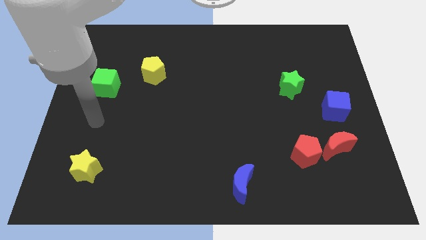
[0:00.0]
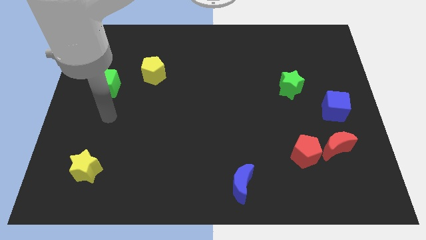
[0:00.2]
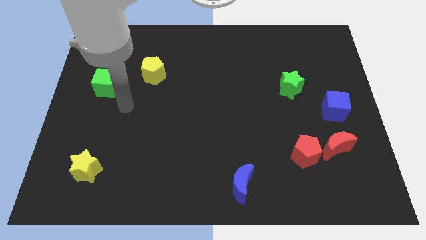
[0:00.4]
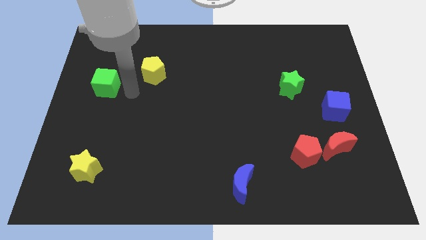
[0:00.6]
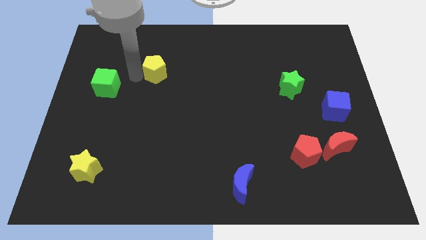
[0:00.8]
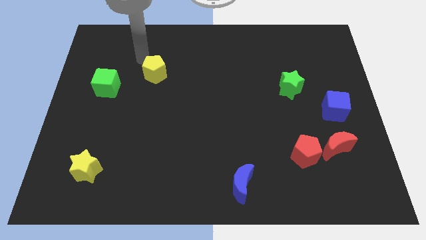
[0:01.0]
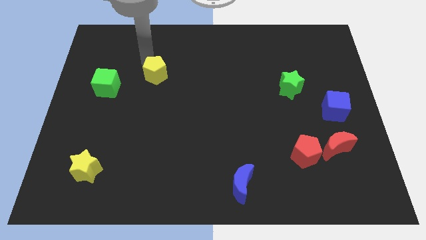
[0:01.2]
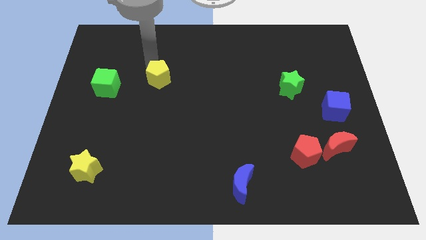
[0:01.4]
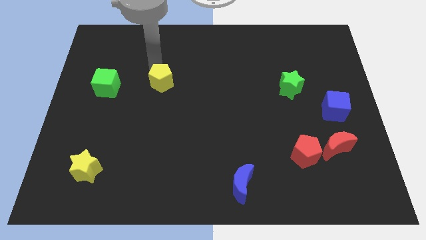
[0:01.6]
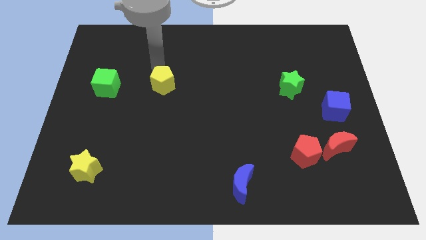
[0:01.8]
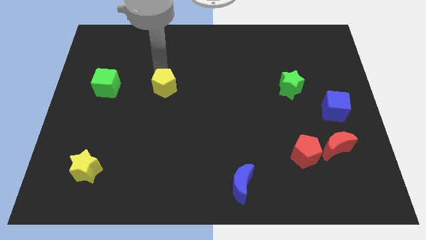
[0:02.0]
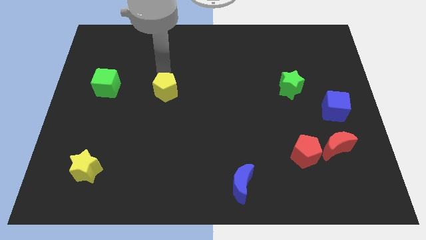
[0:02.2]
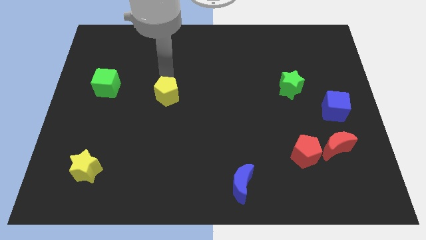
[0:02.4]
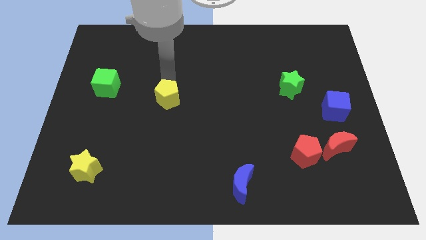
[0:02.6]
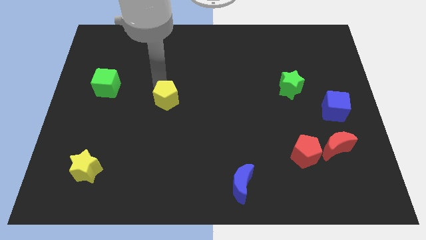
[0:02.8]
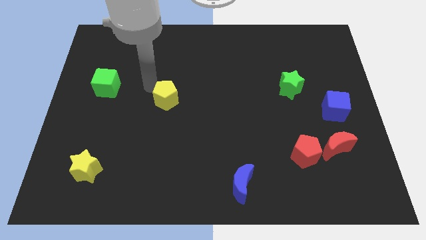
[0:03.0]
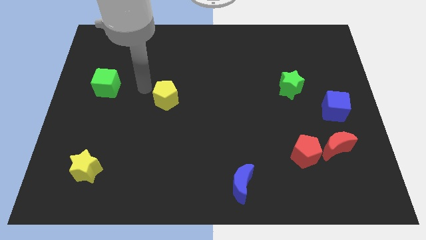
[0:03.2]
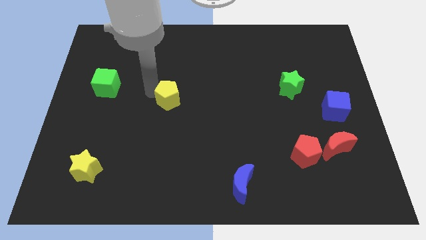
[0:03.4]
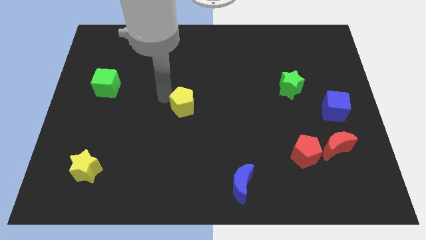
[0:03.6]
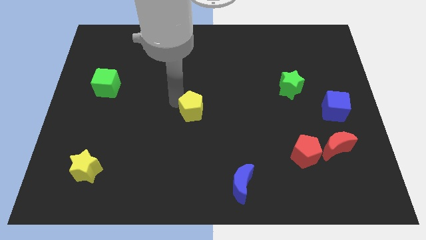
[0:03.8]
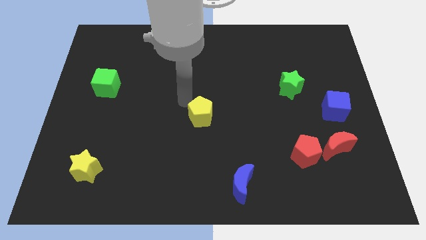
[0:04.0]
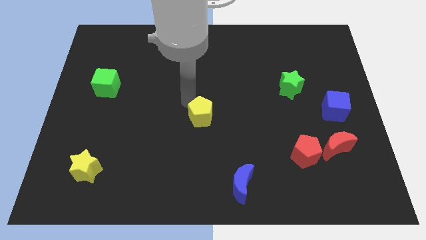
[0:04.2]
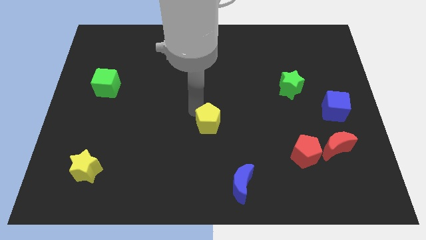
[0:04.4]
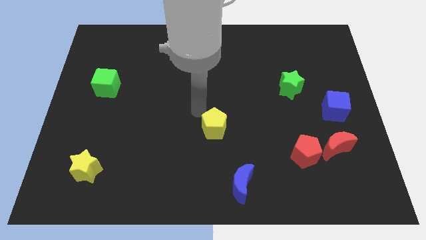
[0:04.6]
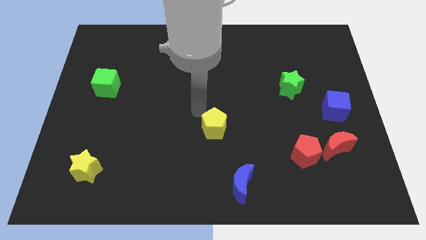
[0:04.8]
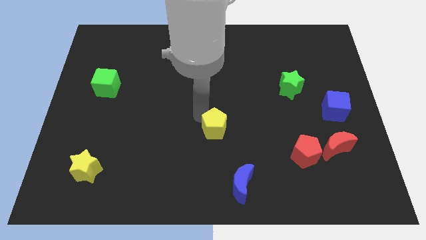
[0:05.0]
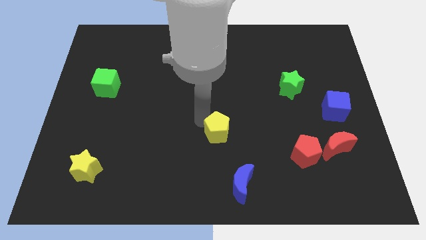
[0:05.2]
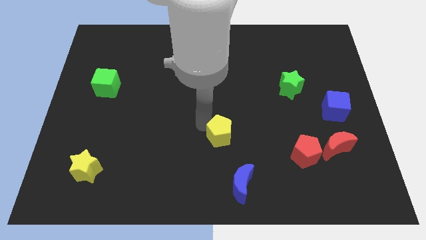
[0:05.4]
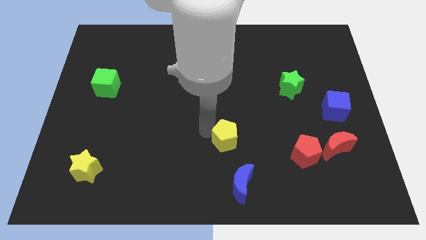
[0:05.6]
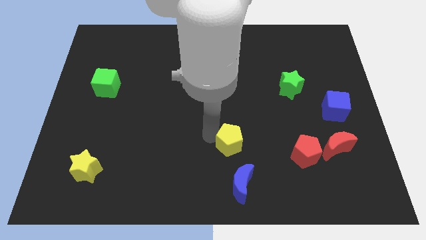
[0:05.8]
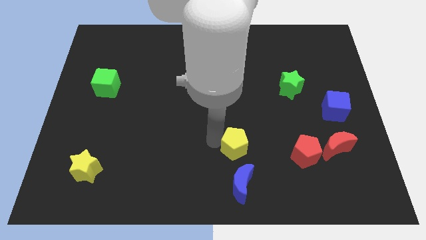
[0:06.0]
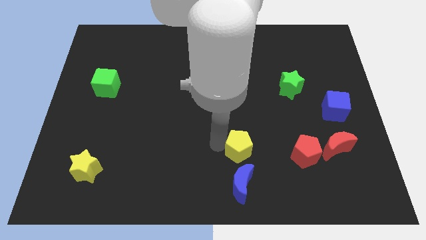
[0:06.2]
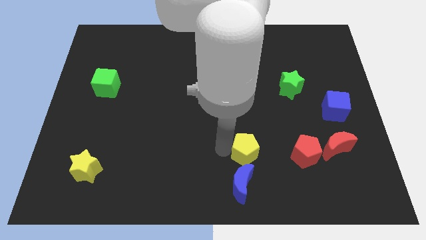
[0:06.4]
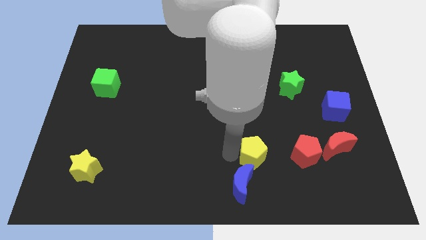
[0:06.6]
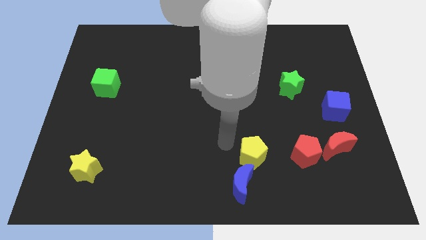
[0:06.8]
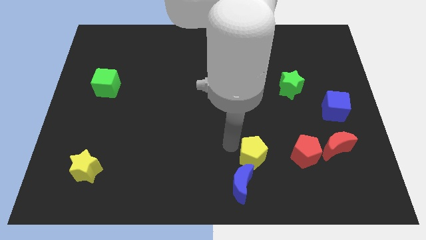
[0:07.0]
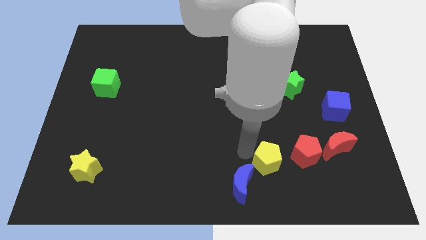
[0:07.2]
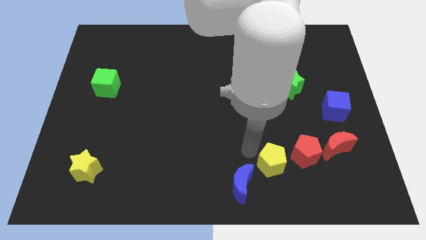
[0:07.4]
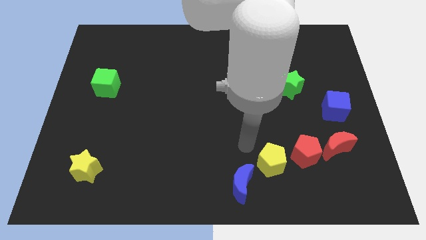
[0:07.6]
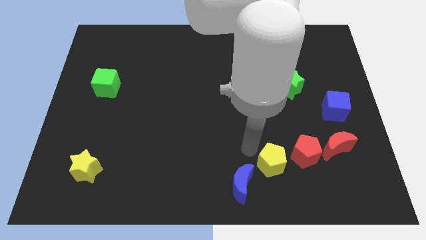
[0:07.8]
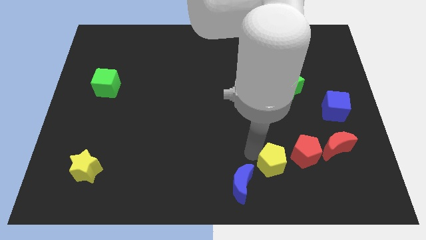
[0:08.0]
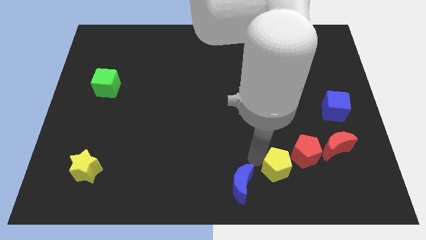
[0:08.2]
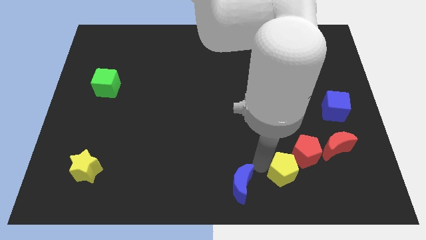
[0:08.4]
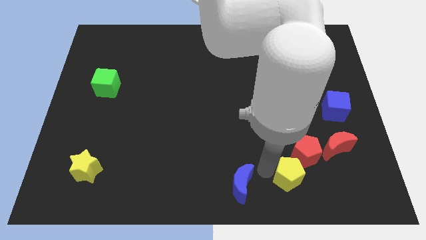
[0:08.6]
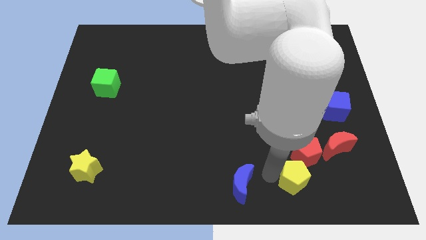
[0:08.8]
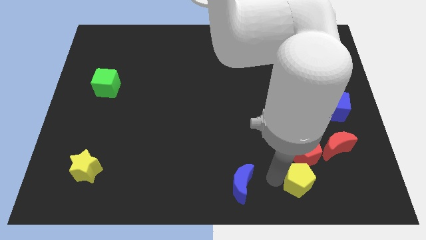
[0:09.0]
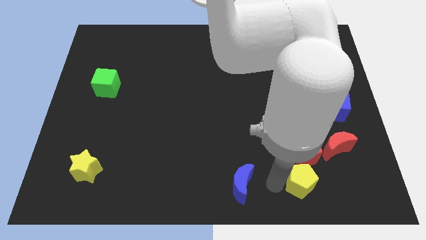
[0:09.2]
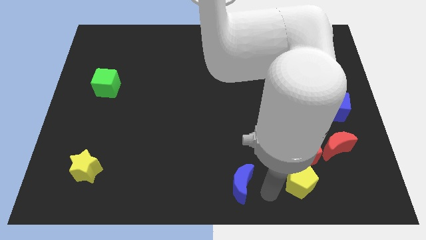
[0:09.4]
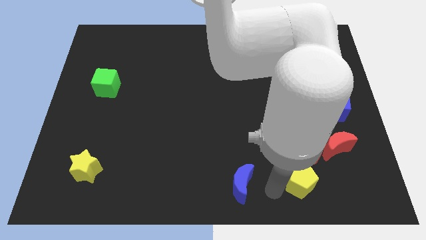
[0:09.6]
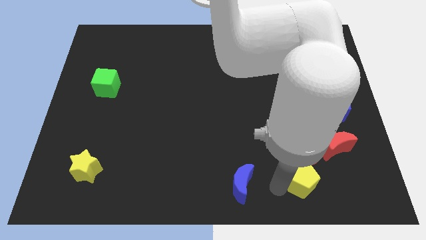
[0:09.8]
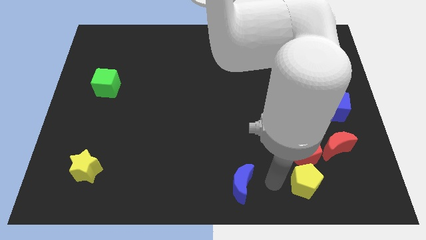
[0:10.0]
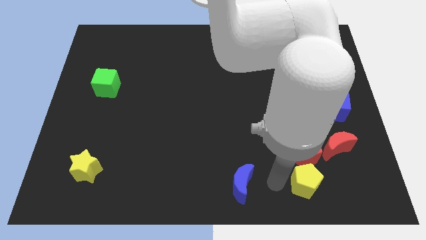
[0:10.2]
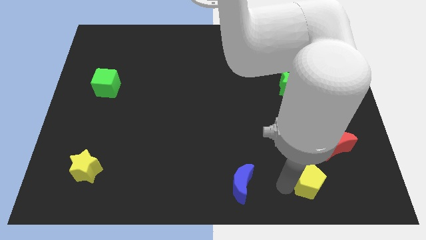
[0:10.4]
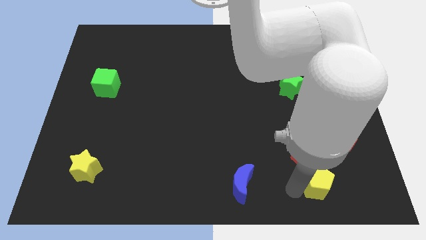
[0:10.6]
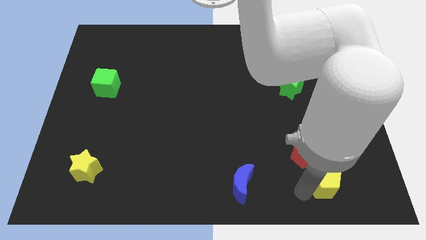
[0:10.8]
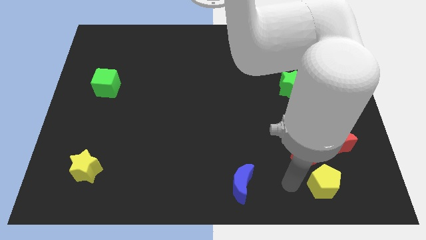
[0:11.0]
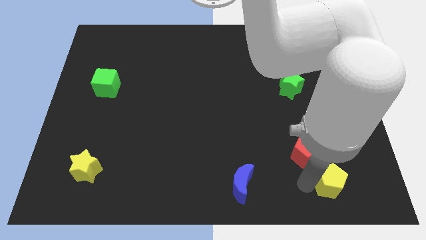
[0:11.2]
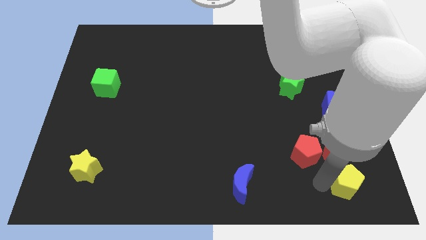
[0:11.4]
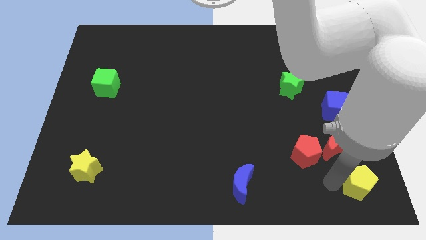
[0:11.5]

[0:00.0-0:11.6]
push the yellow pentagon to the bottom right of the board

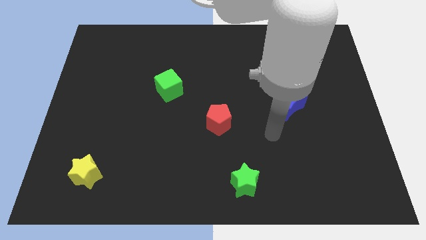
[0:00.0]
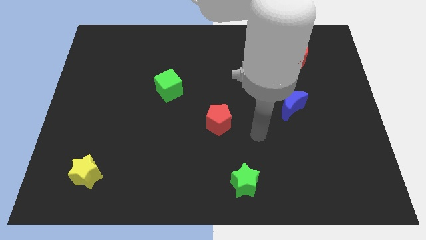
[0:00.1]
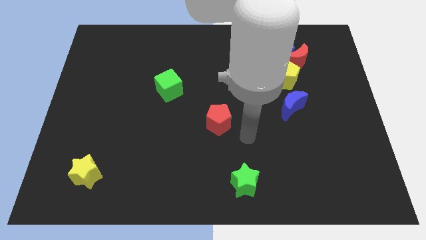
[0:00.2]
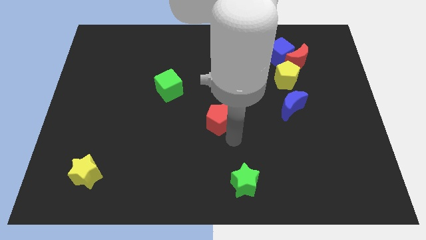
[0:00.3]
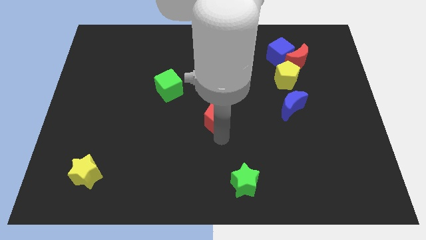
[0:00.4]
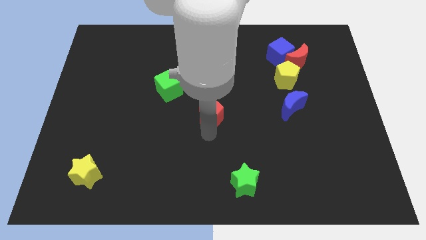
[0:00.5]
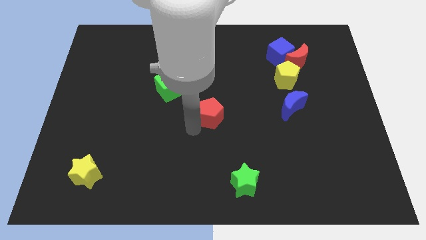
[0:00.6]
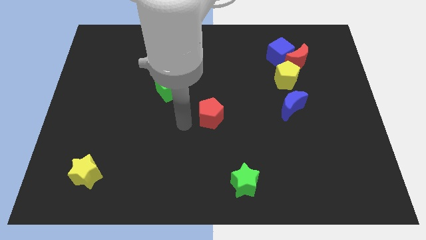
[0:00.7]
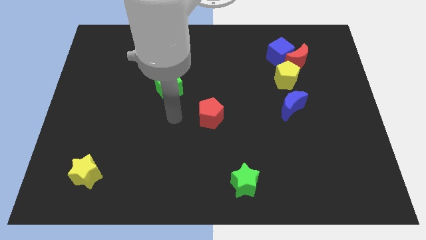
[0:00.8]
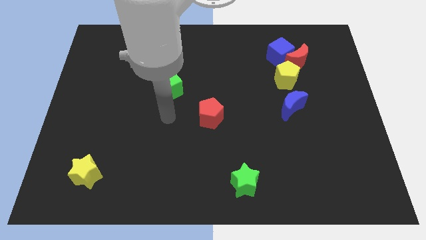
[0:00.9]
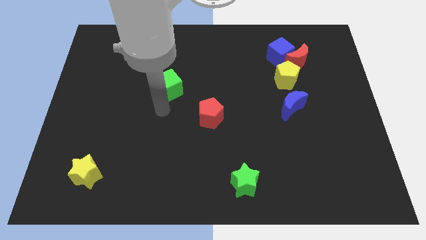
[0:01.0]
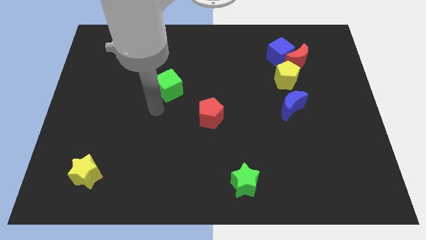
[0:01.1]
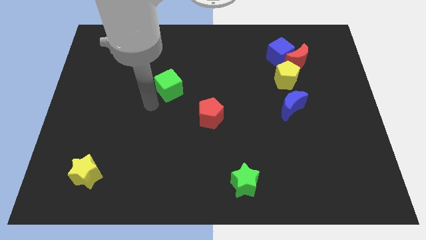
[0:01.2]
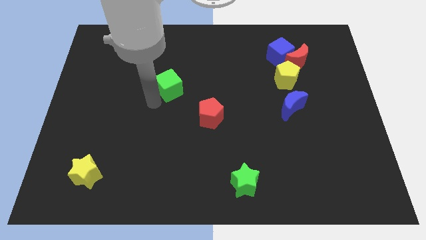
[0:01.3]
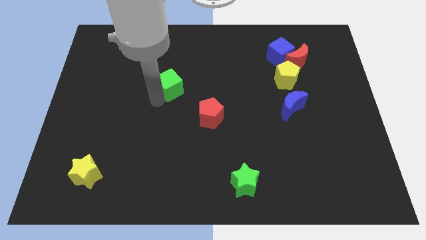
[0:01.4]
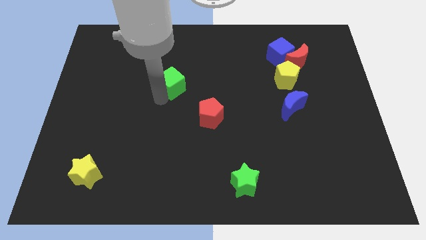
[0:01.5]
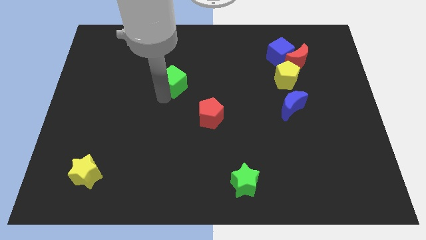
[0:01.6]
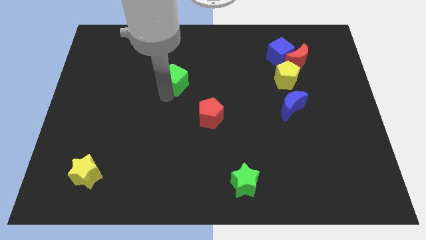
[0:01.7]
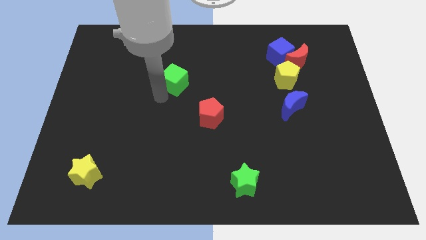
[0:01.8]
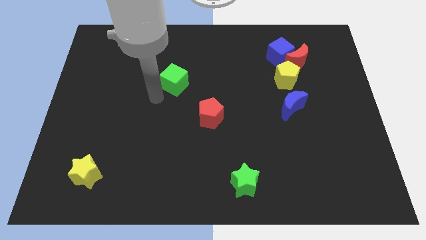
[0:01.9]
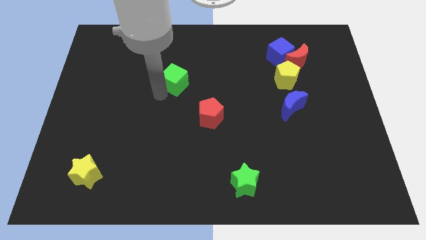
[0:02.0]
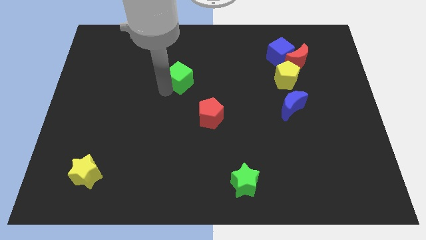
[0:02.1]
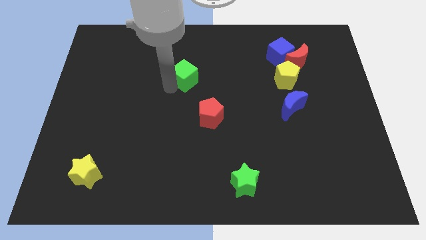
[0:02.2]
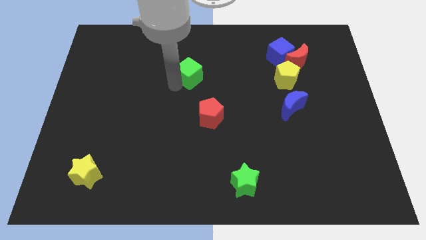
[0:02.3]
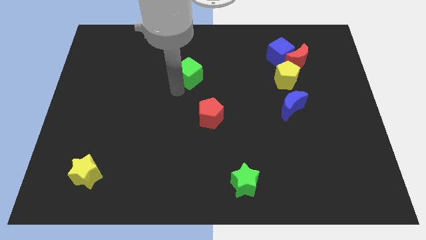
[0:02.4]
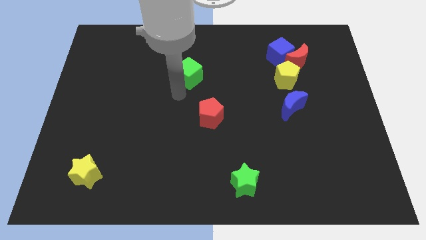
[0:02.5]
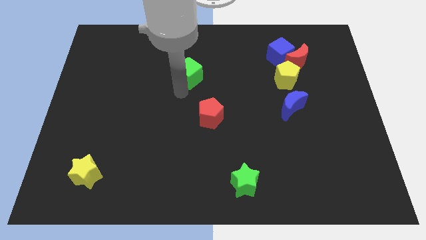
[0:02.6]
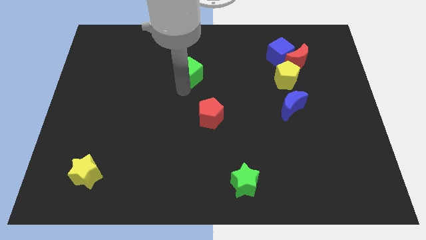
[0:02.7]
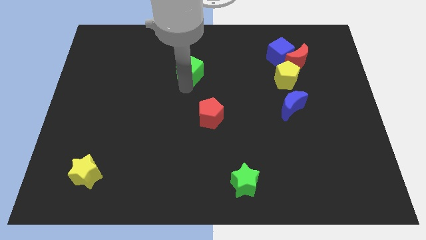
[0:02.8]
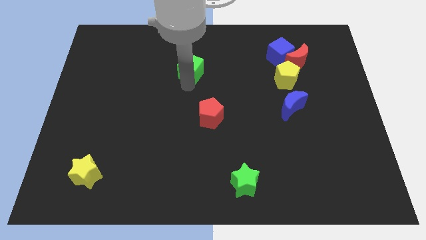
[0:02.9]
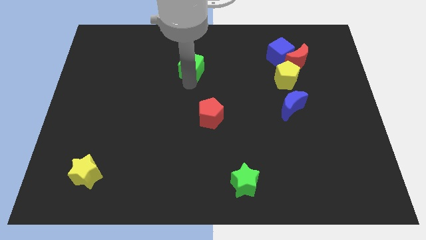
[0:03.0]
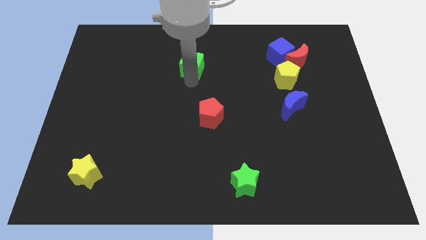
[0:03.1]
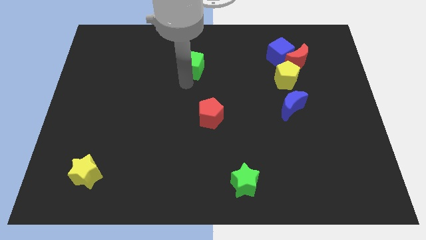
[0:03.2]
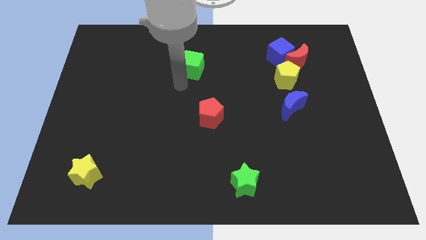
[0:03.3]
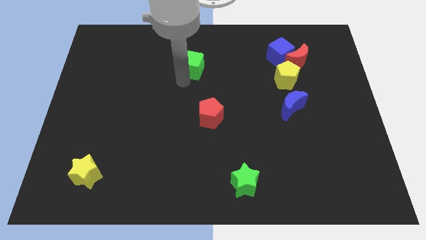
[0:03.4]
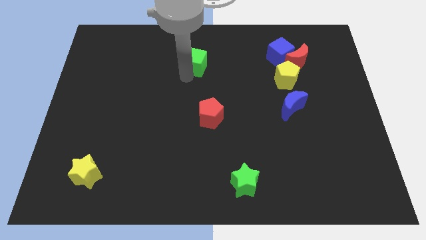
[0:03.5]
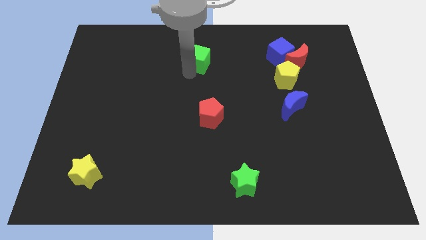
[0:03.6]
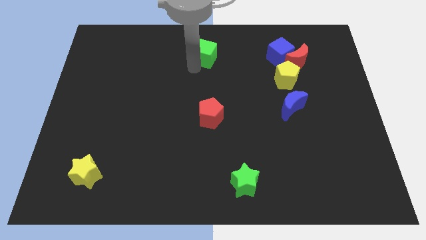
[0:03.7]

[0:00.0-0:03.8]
move the green cube to the top
